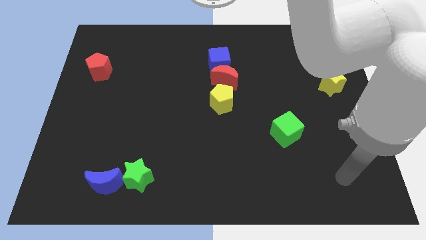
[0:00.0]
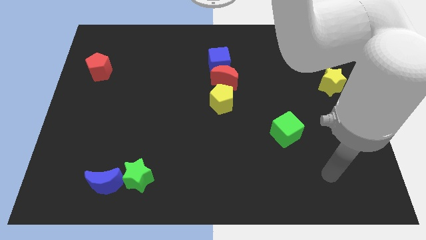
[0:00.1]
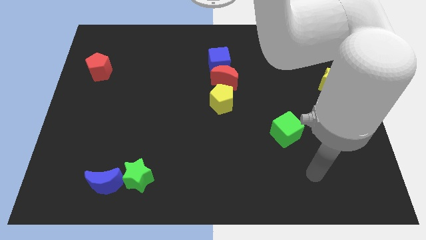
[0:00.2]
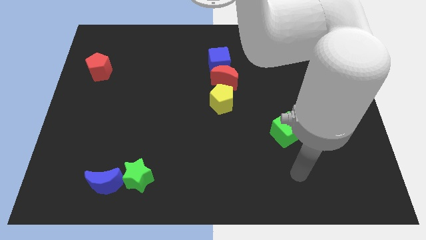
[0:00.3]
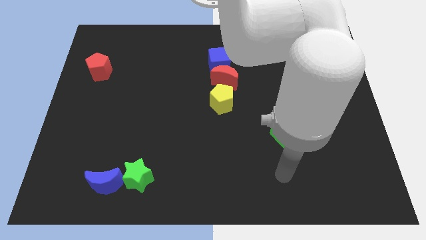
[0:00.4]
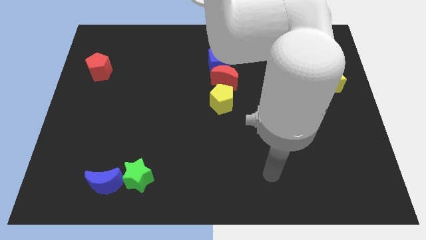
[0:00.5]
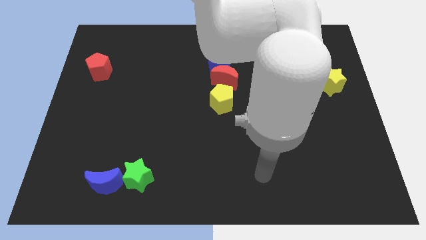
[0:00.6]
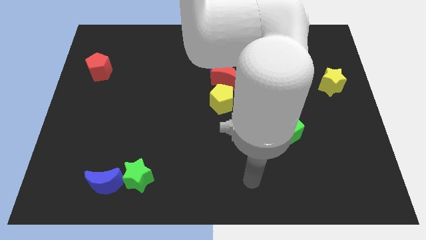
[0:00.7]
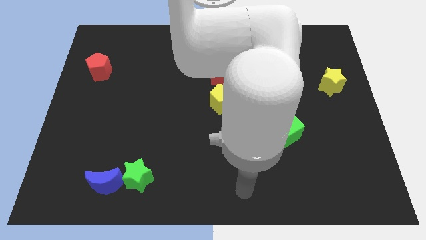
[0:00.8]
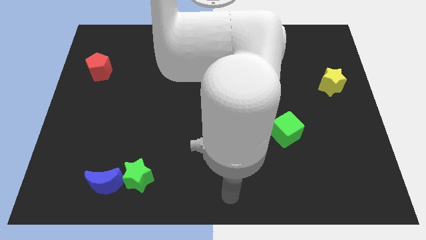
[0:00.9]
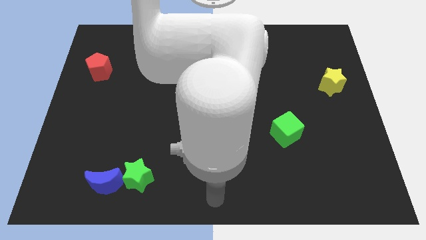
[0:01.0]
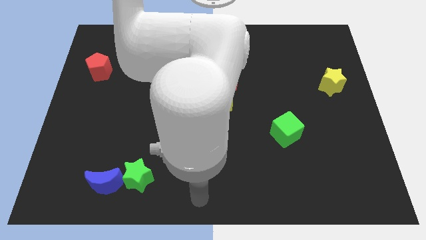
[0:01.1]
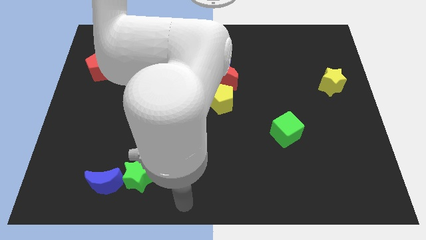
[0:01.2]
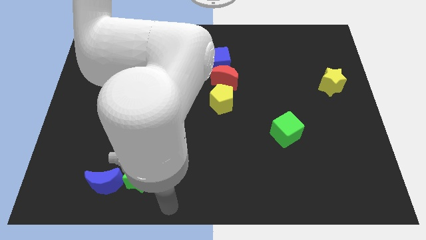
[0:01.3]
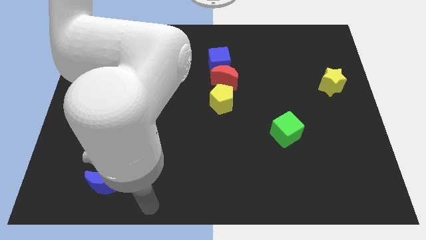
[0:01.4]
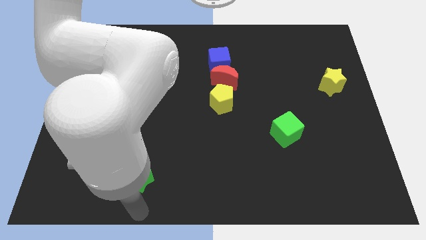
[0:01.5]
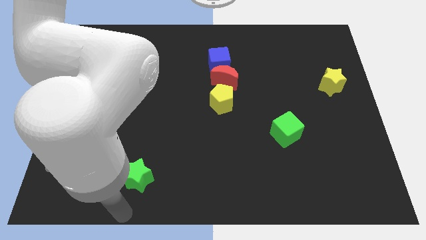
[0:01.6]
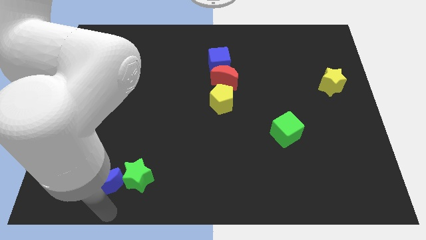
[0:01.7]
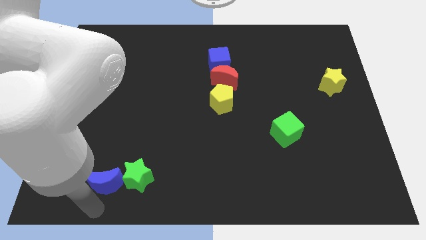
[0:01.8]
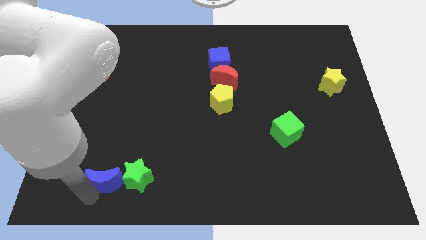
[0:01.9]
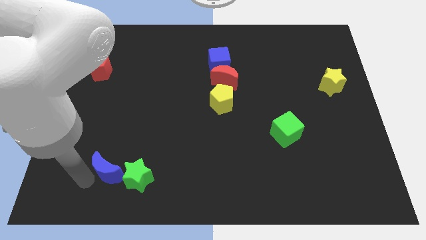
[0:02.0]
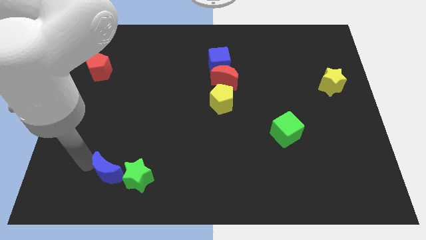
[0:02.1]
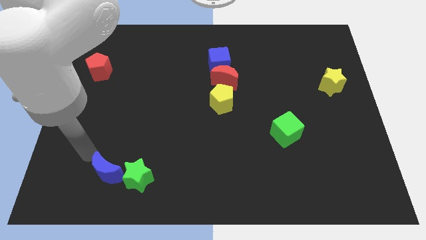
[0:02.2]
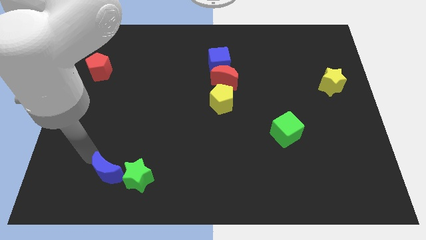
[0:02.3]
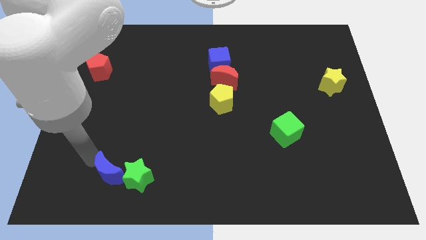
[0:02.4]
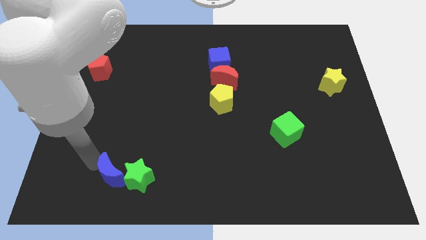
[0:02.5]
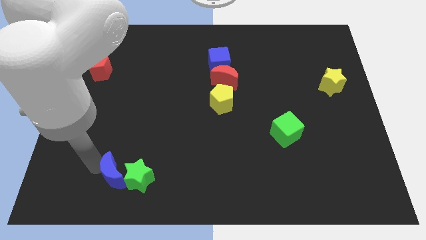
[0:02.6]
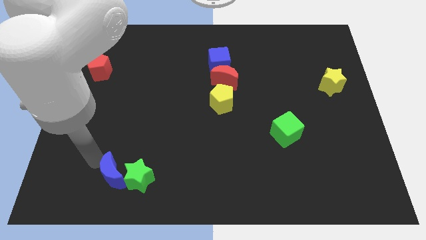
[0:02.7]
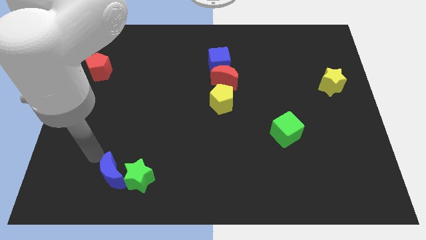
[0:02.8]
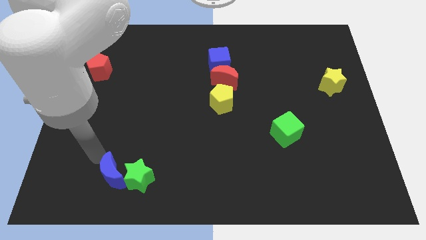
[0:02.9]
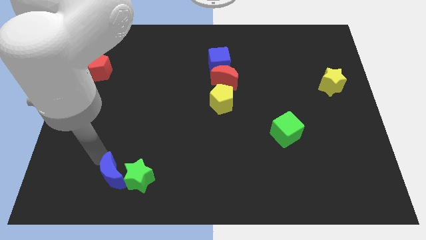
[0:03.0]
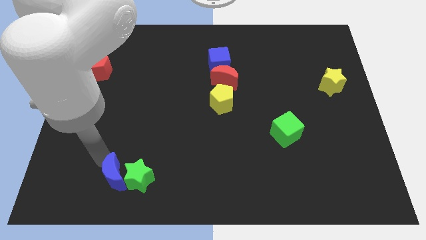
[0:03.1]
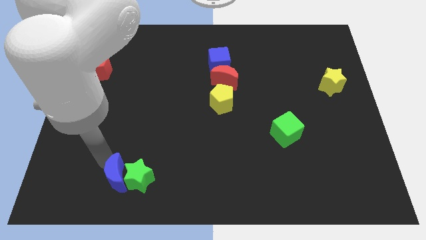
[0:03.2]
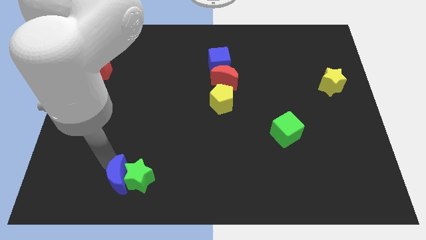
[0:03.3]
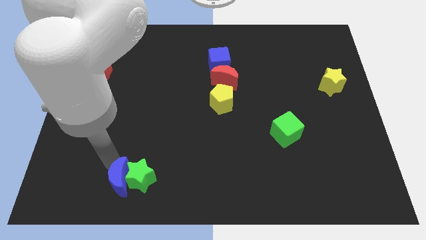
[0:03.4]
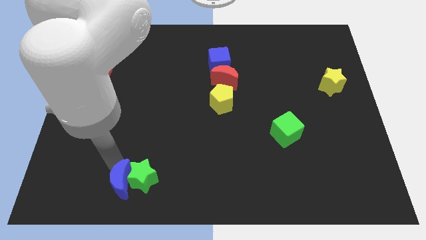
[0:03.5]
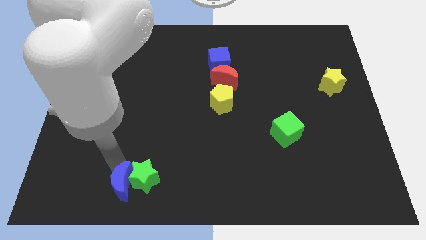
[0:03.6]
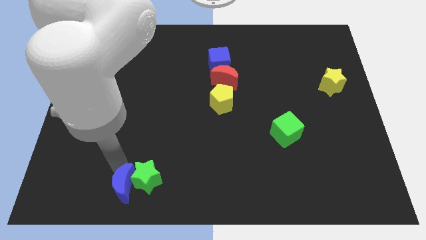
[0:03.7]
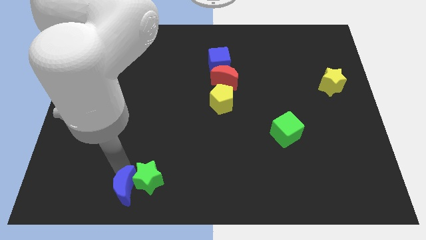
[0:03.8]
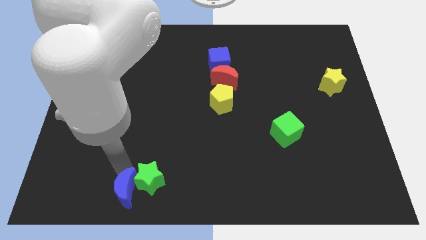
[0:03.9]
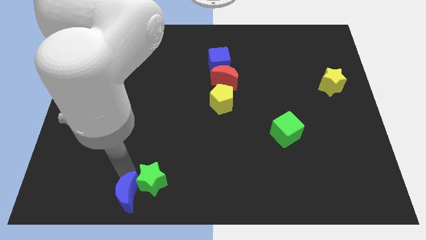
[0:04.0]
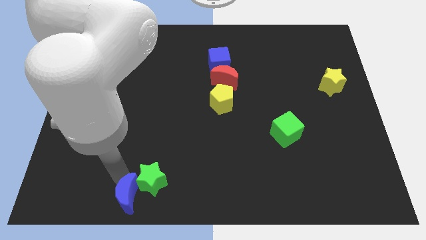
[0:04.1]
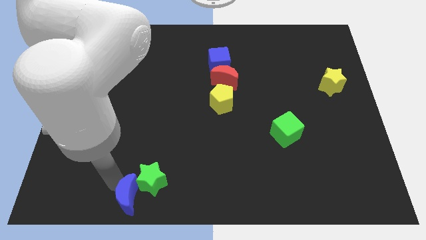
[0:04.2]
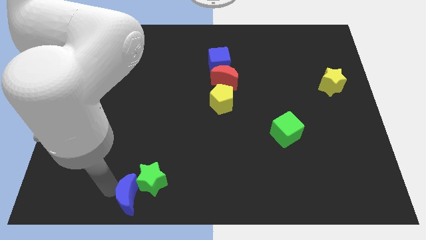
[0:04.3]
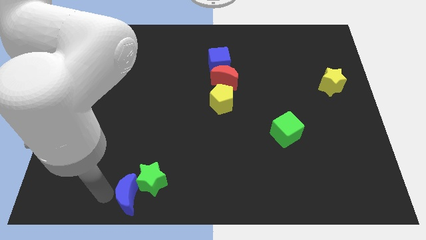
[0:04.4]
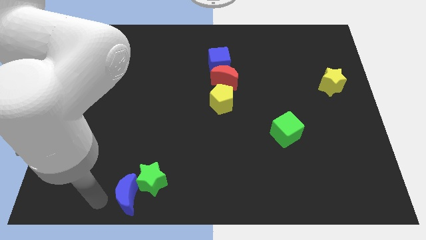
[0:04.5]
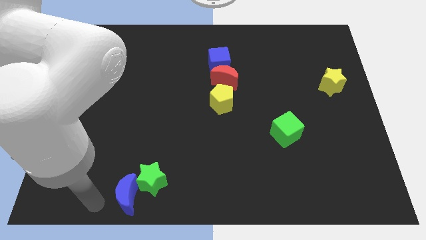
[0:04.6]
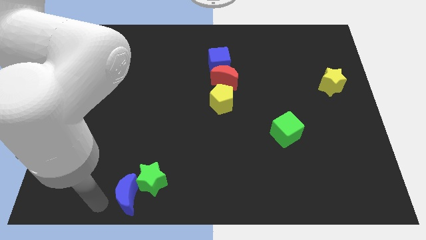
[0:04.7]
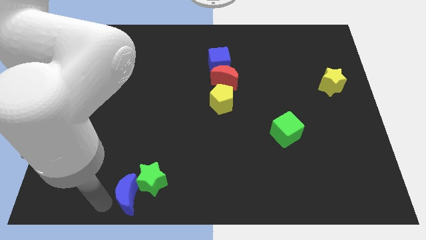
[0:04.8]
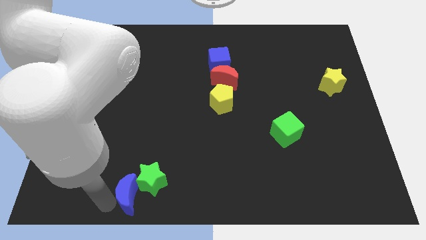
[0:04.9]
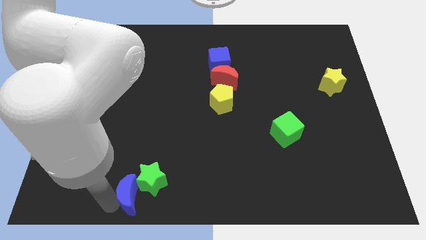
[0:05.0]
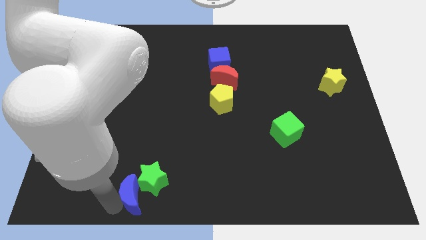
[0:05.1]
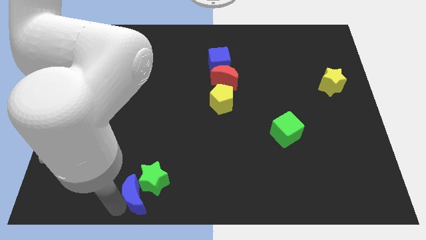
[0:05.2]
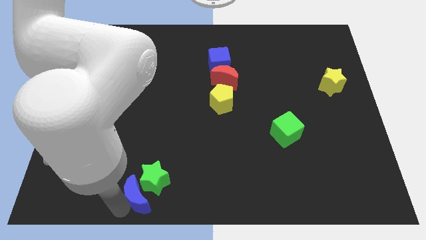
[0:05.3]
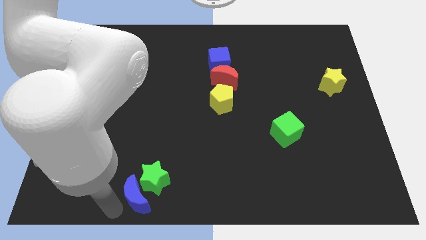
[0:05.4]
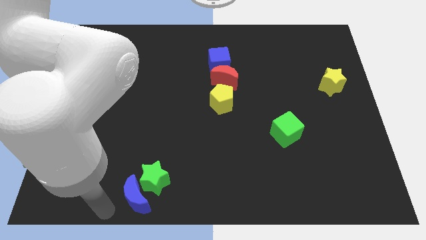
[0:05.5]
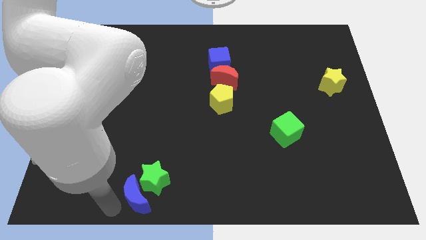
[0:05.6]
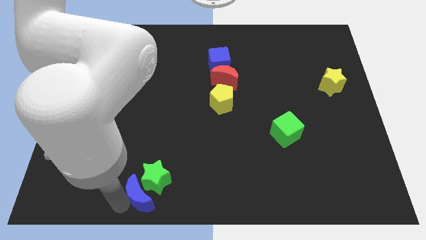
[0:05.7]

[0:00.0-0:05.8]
slide the blue moon a little to the right

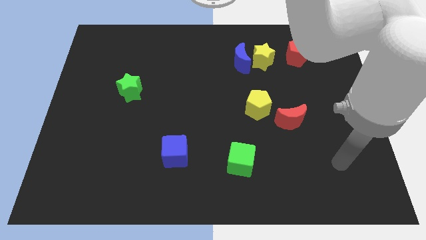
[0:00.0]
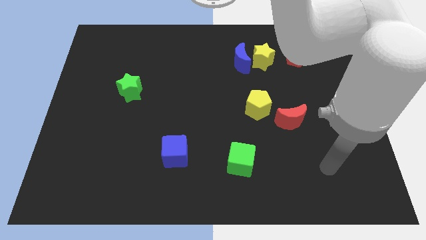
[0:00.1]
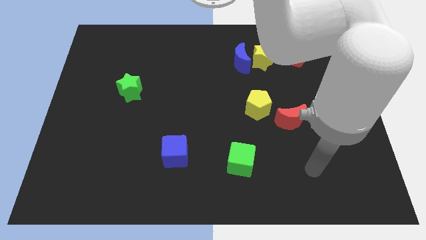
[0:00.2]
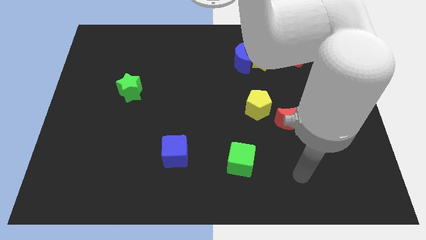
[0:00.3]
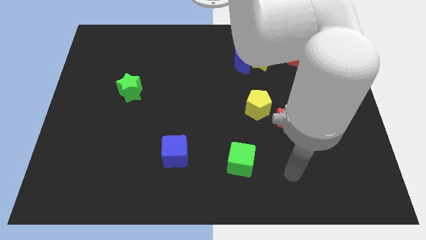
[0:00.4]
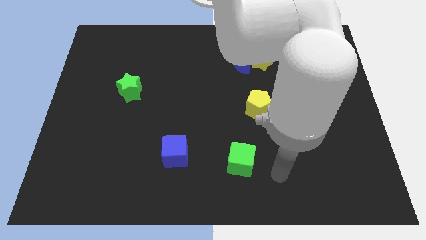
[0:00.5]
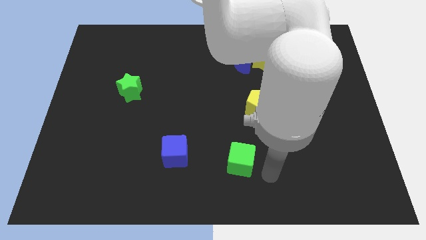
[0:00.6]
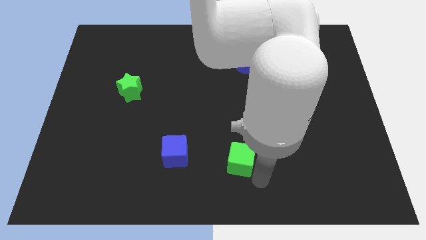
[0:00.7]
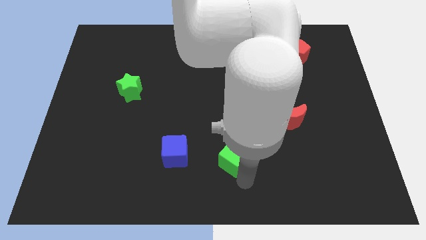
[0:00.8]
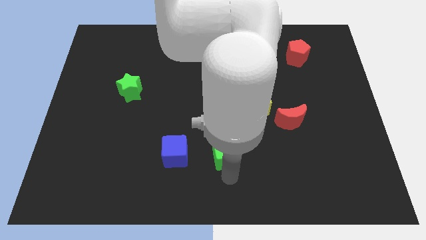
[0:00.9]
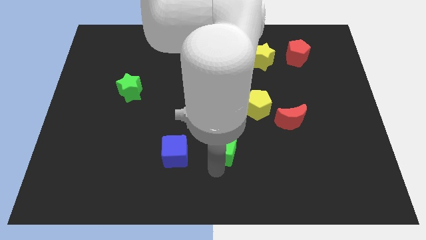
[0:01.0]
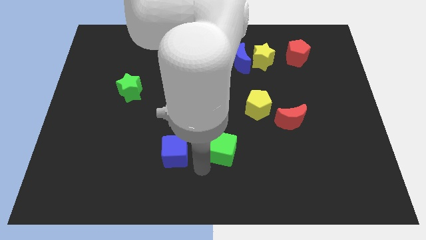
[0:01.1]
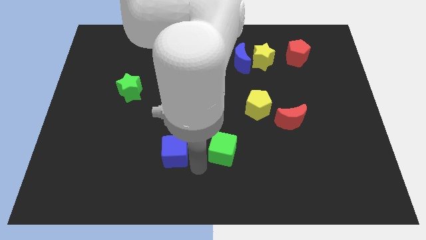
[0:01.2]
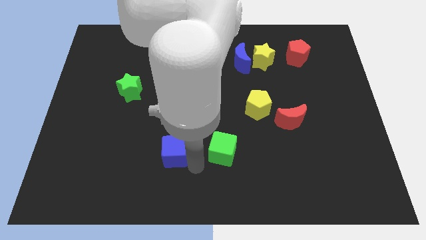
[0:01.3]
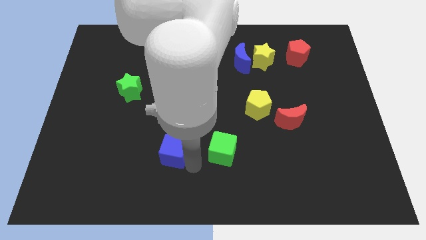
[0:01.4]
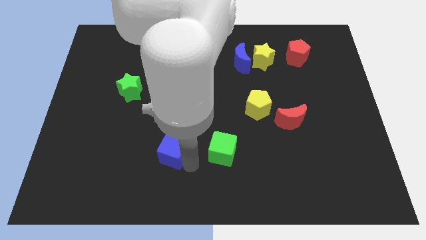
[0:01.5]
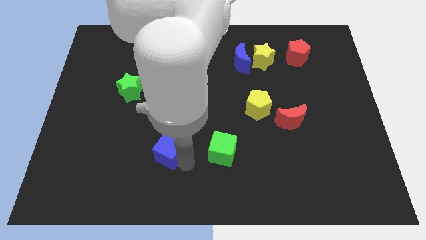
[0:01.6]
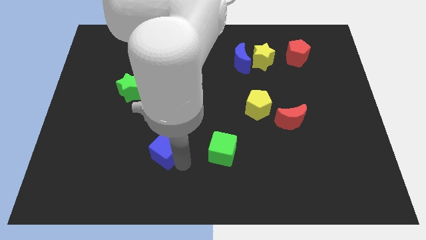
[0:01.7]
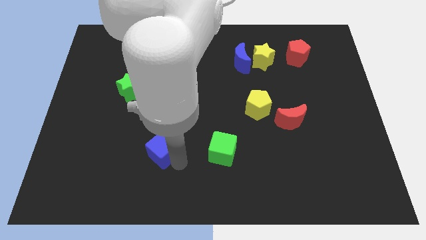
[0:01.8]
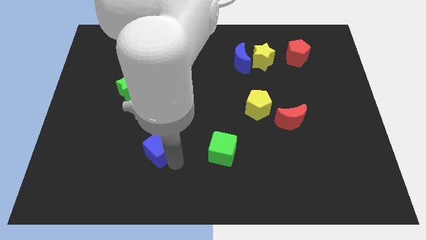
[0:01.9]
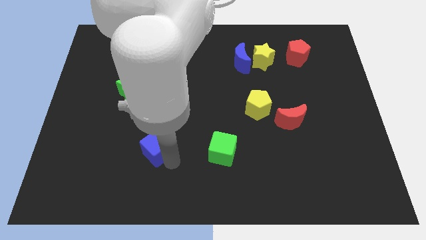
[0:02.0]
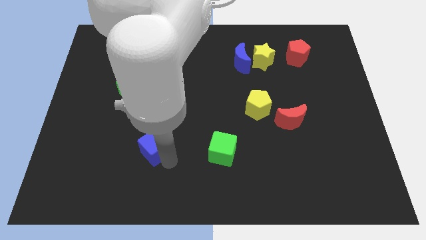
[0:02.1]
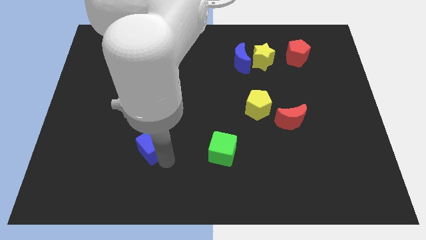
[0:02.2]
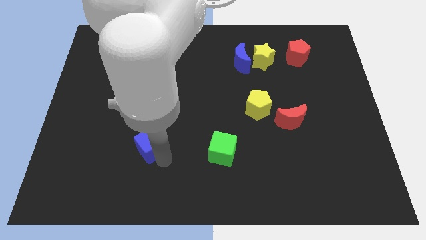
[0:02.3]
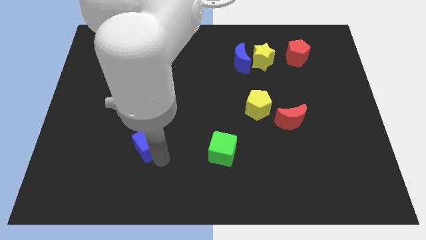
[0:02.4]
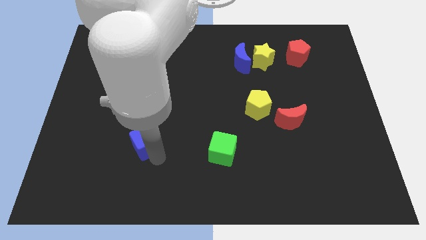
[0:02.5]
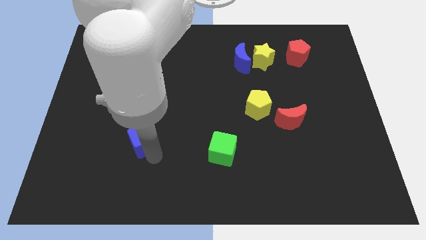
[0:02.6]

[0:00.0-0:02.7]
slide the blue cube upwards and to the left a little bit
